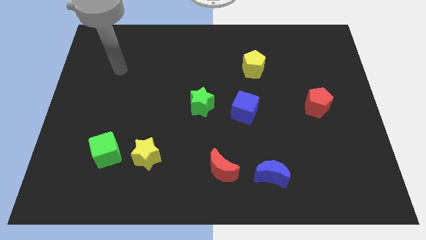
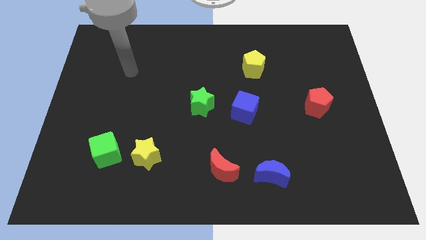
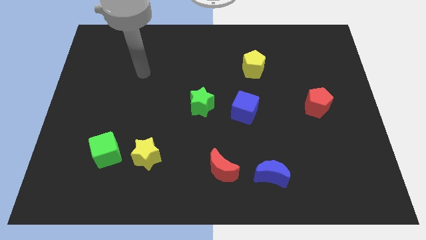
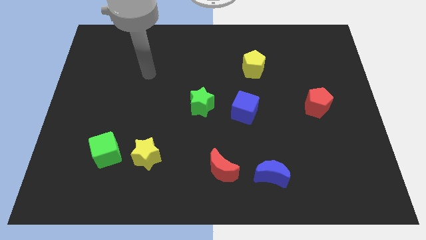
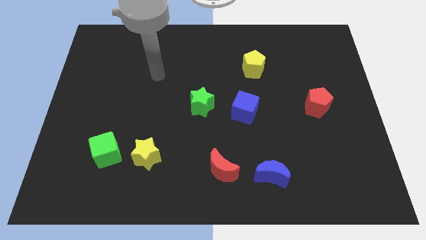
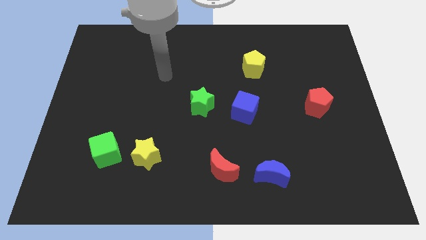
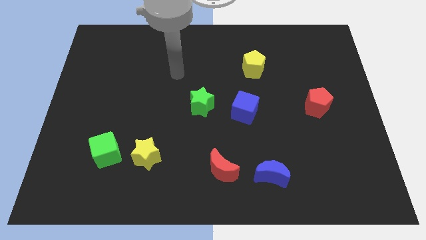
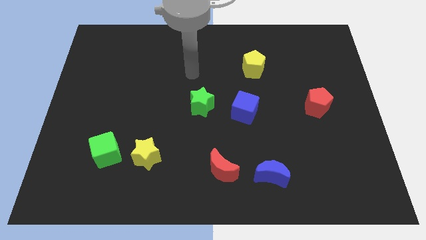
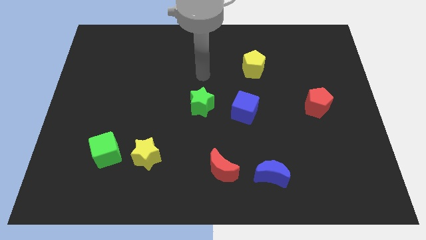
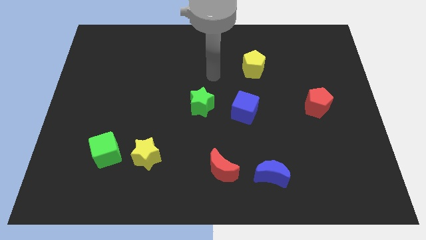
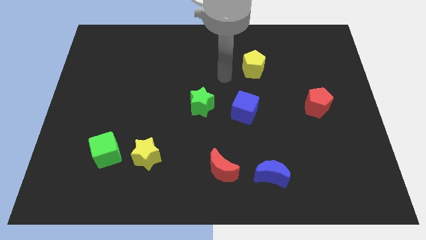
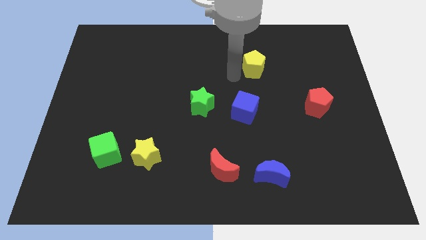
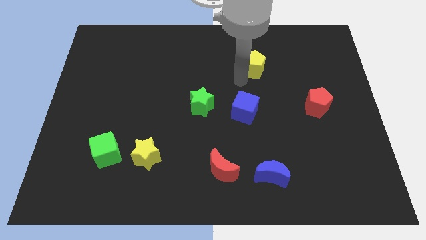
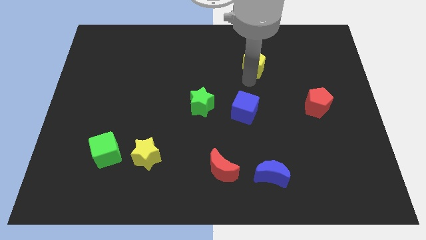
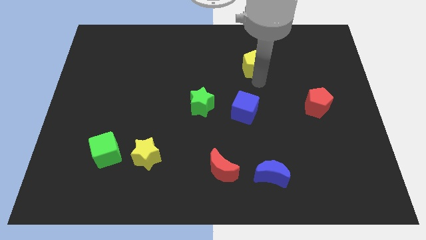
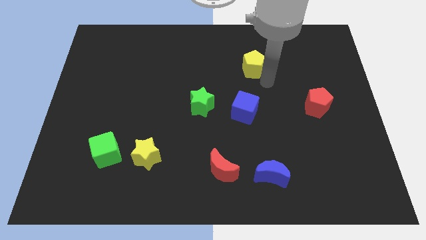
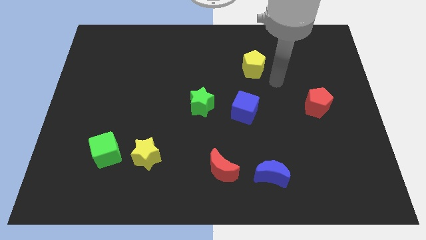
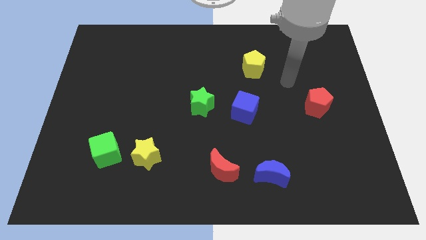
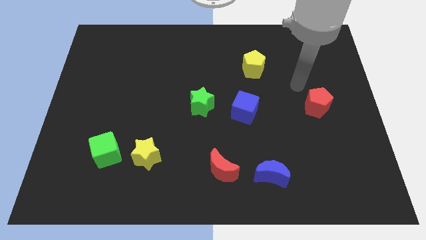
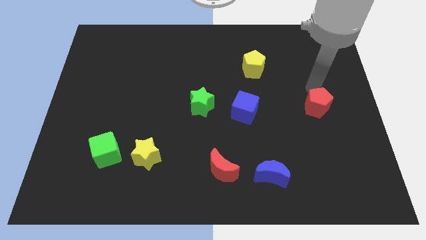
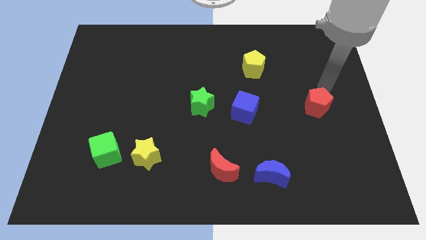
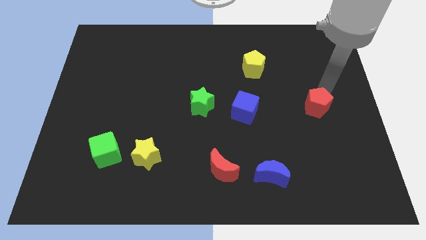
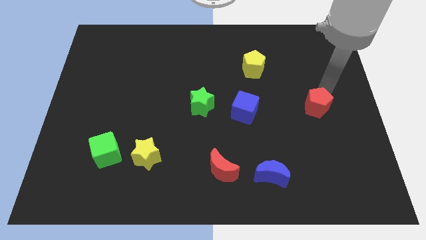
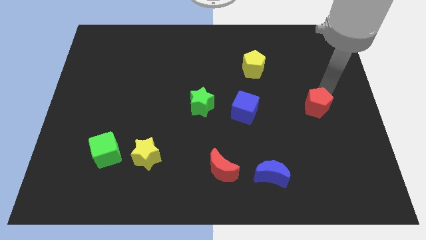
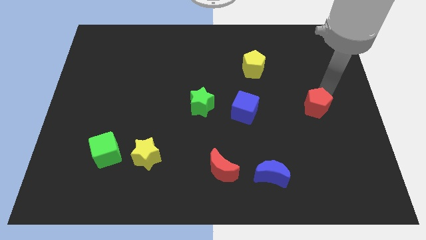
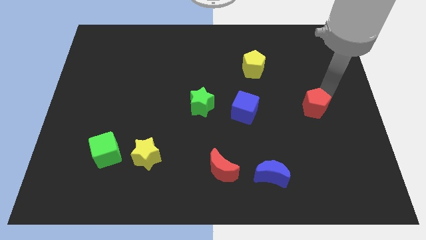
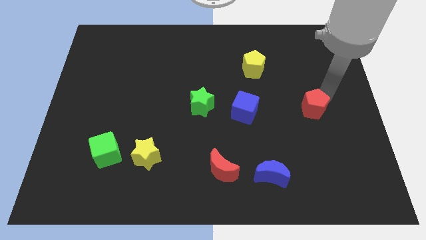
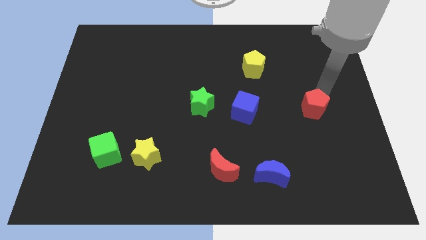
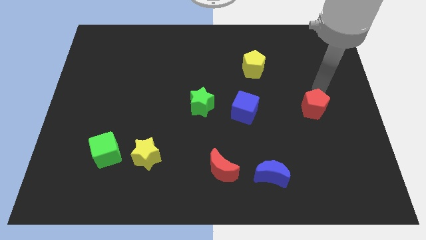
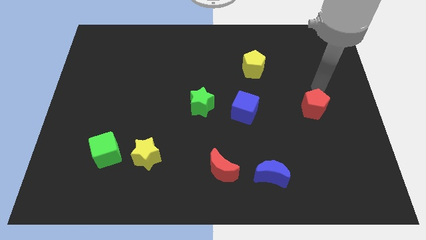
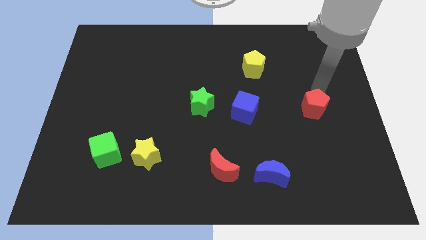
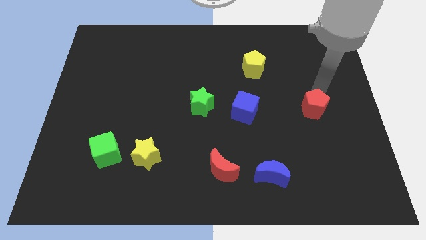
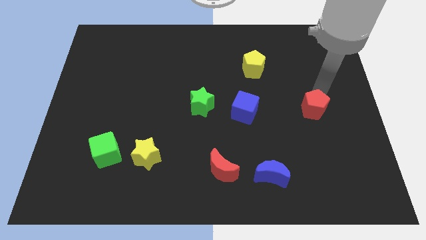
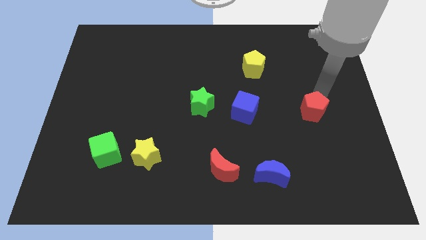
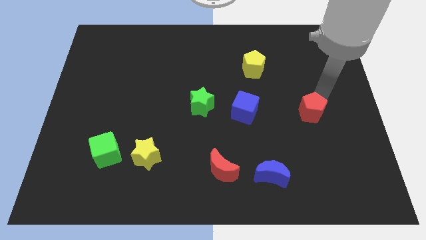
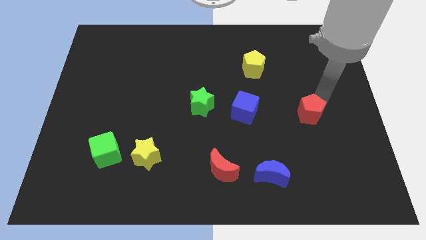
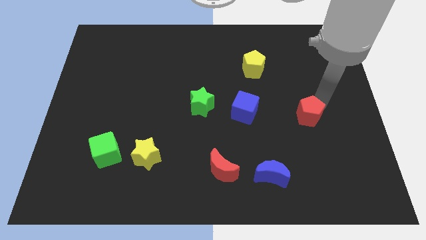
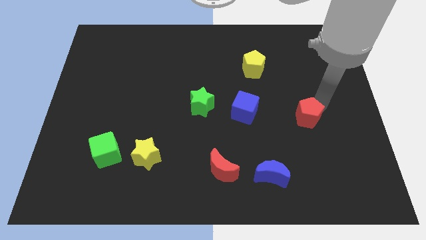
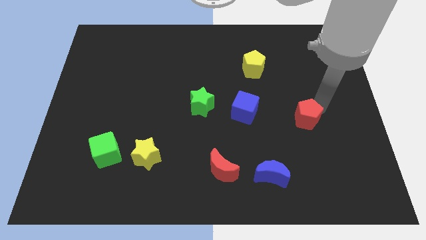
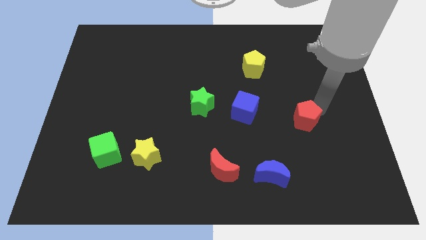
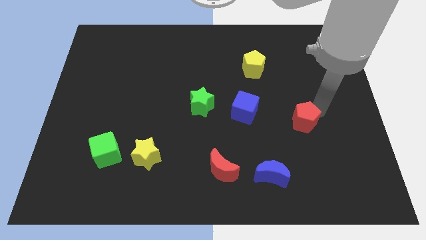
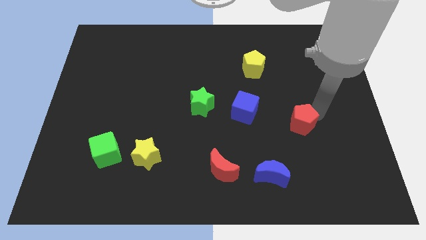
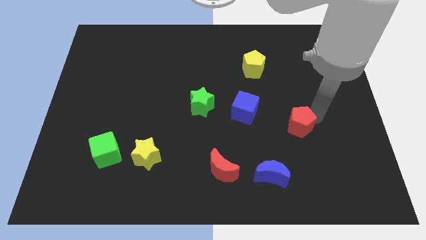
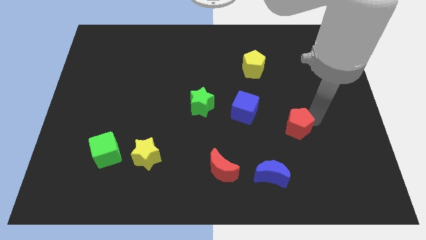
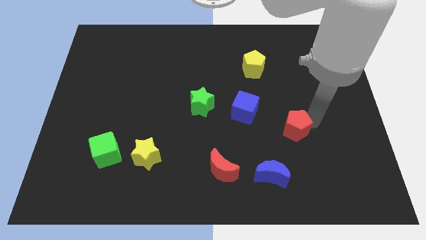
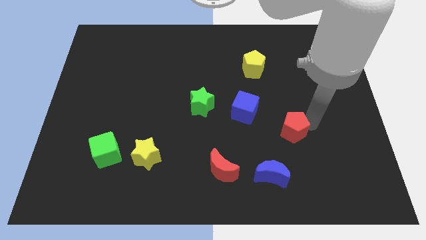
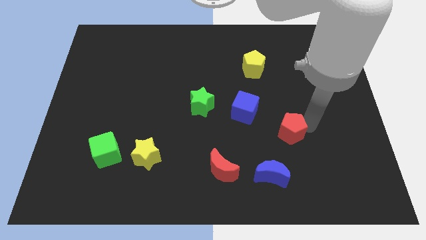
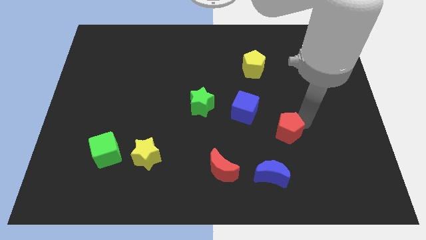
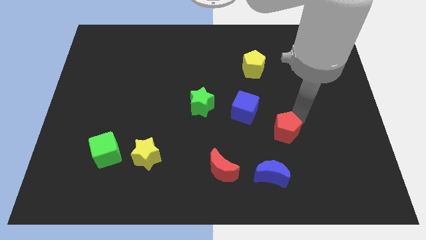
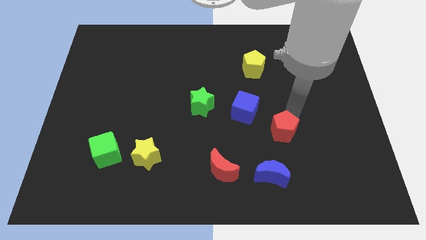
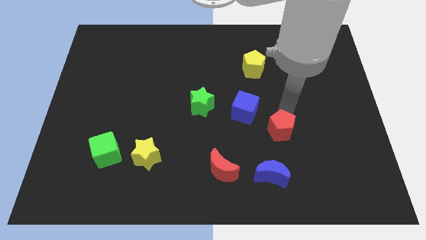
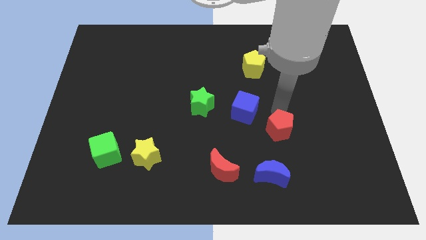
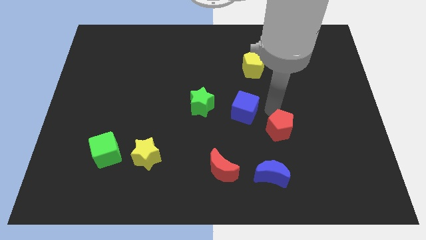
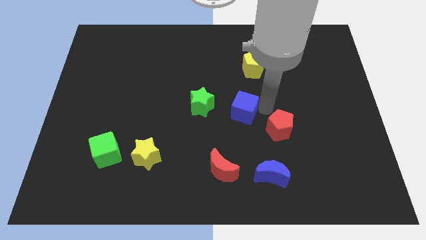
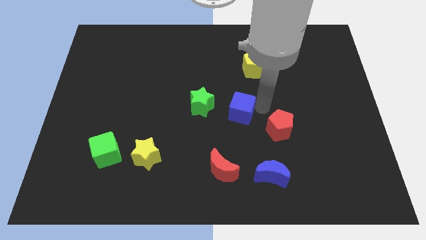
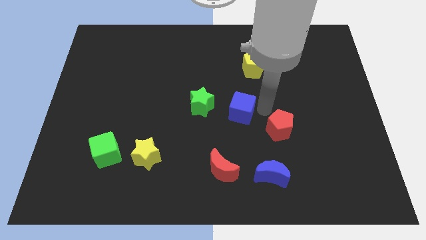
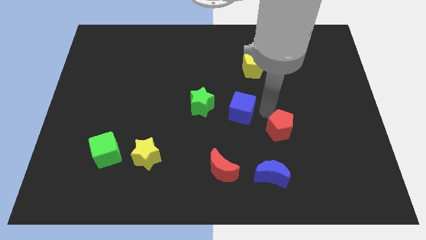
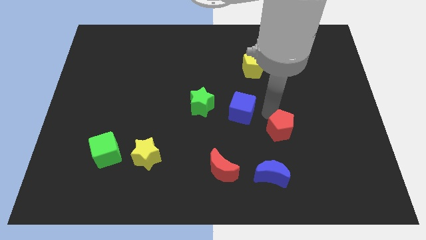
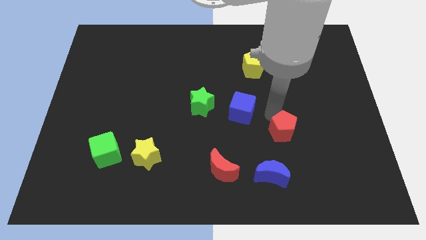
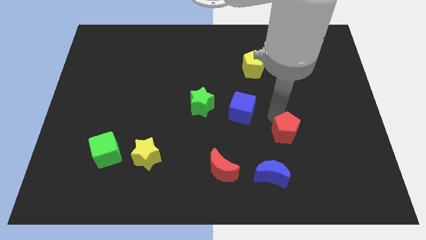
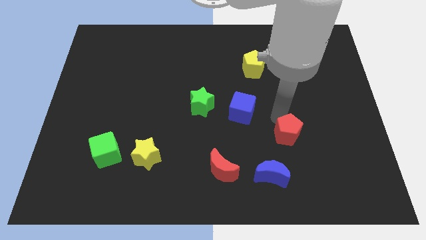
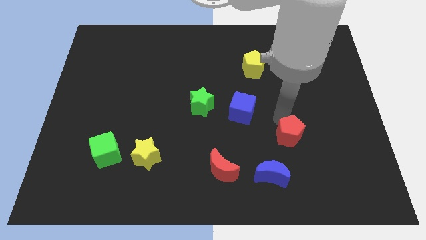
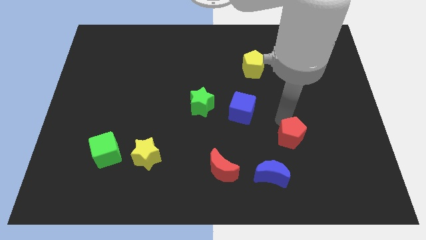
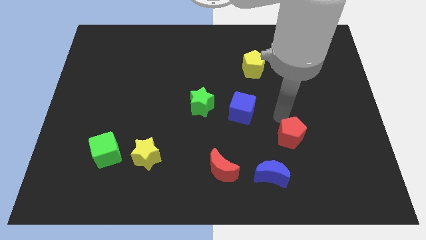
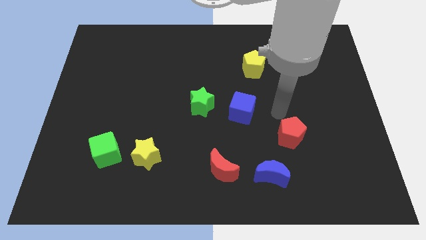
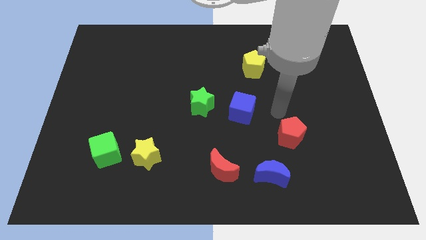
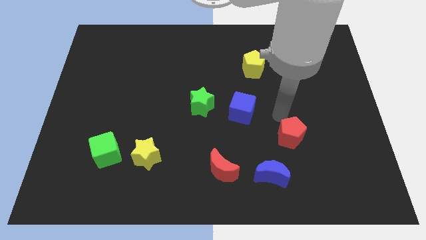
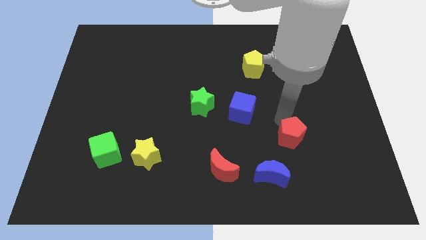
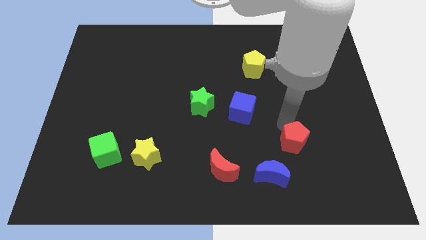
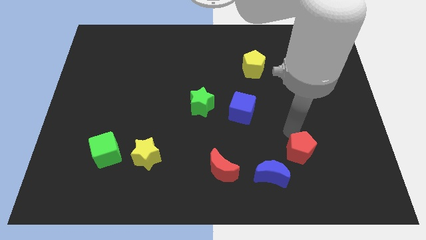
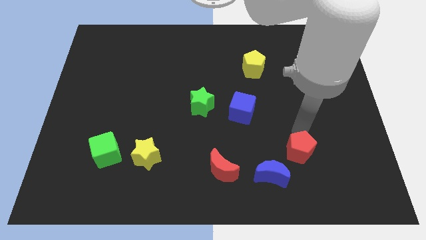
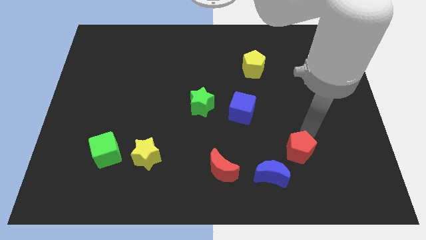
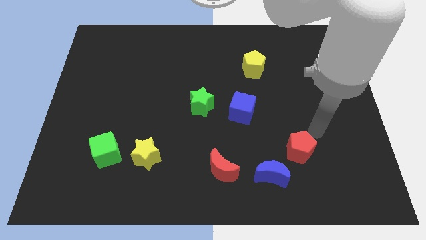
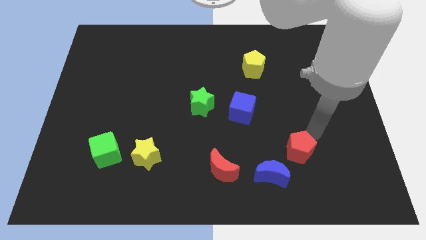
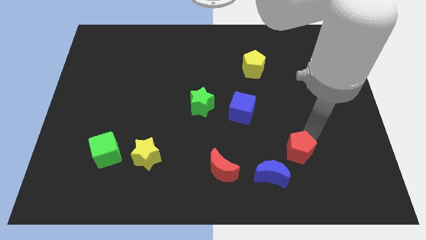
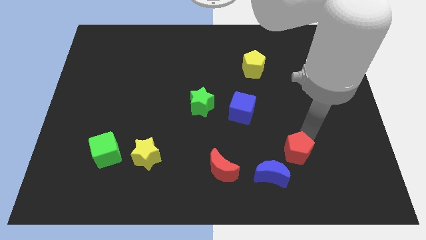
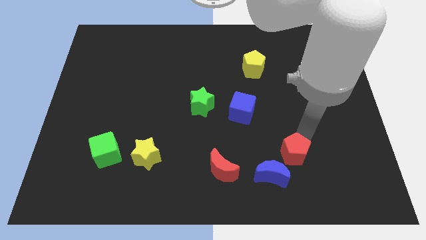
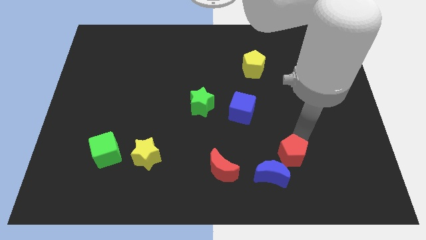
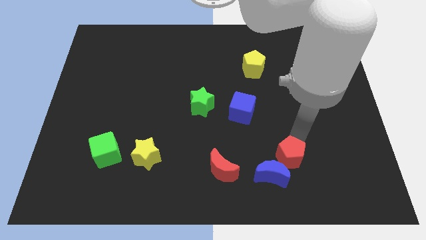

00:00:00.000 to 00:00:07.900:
push the red pentagon to the blue moon
